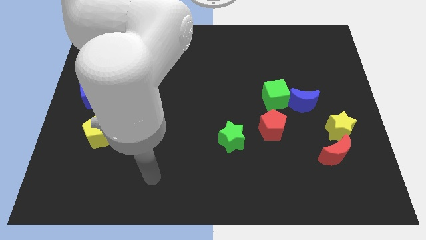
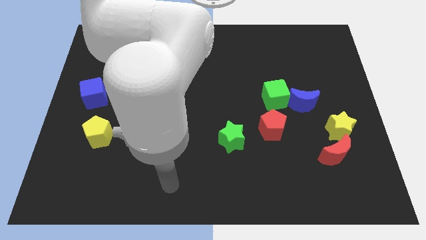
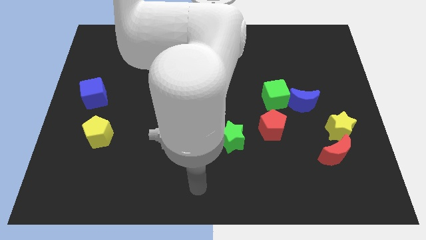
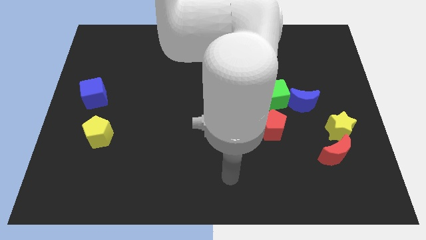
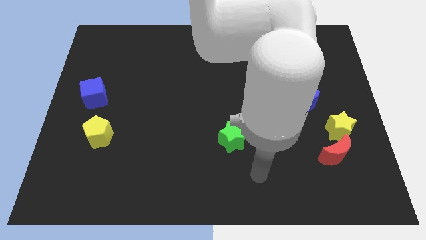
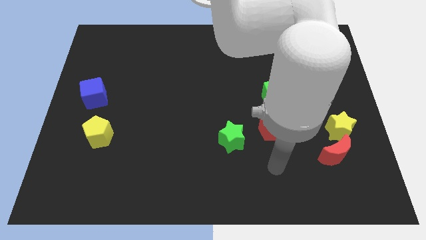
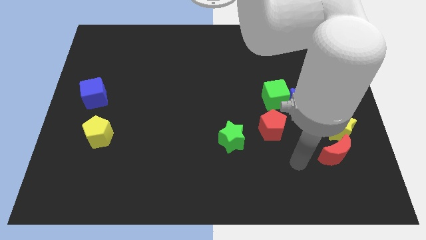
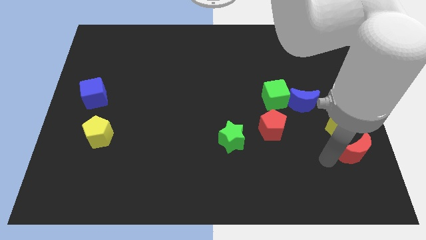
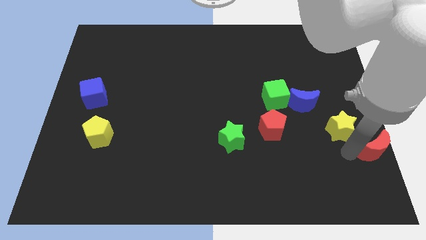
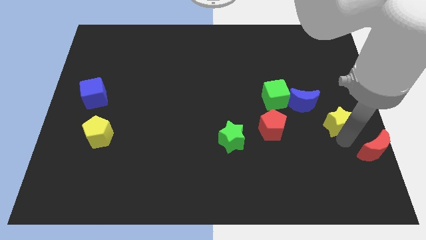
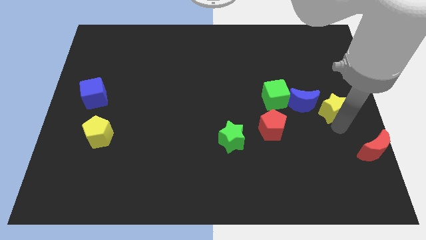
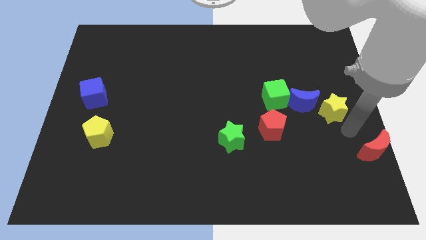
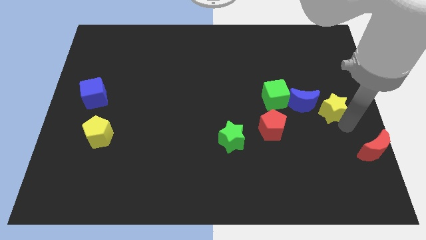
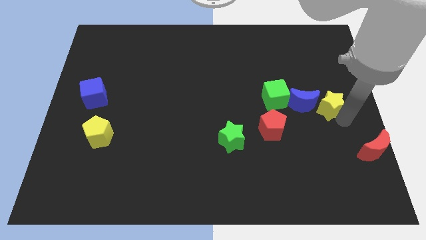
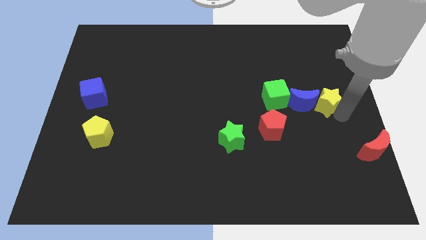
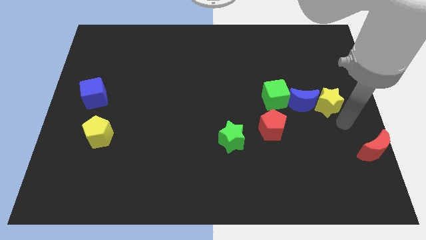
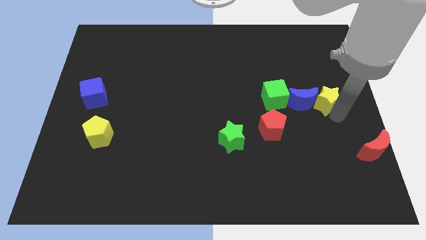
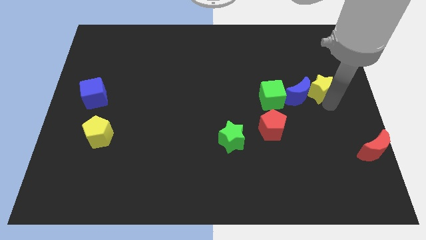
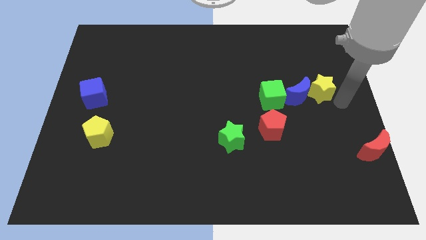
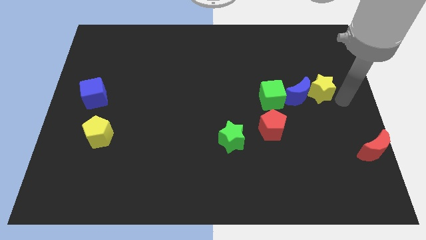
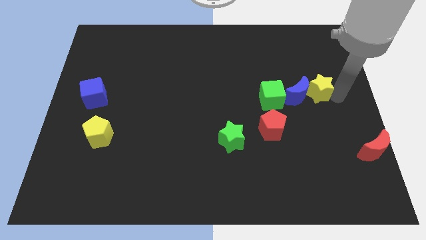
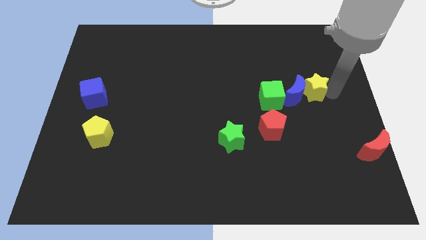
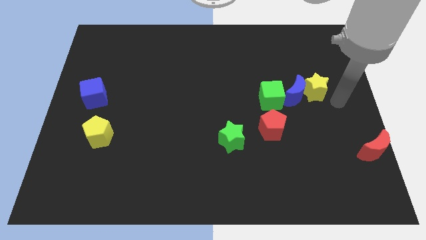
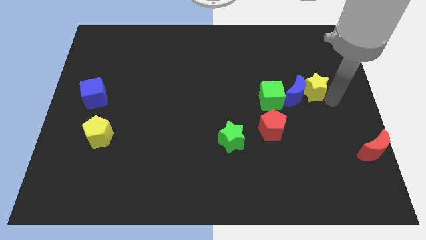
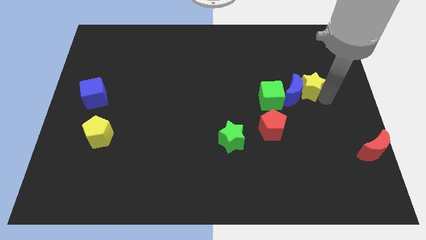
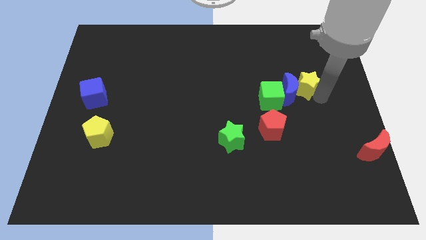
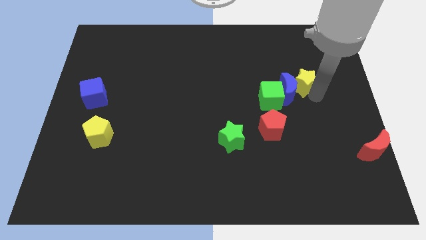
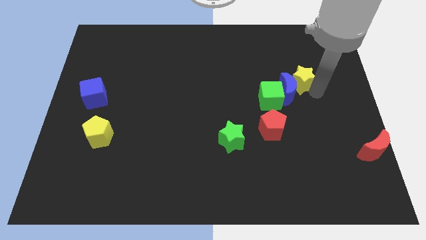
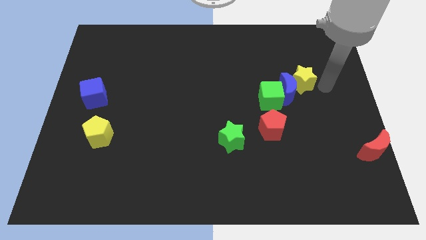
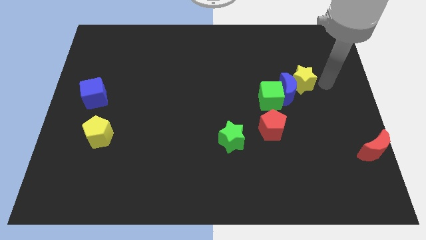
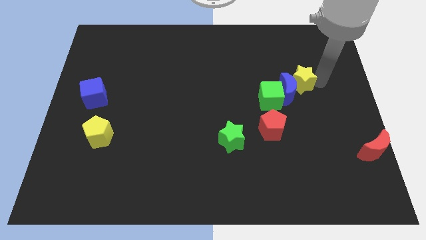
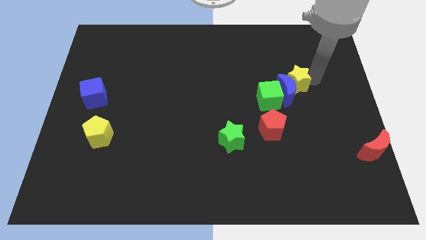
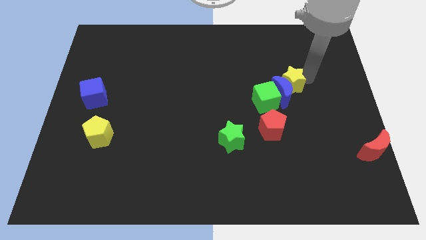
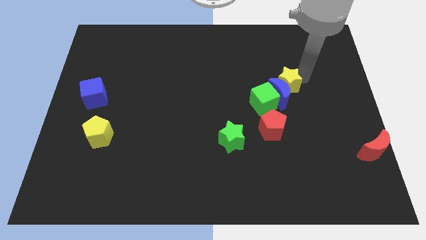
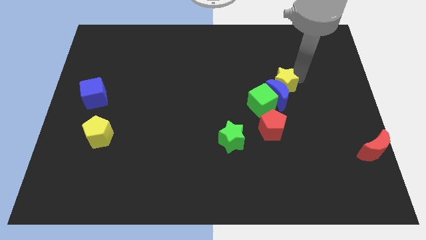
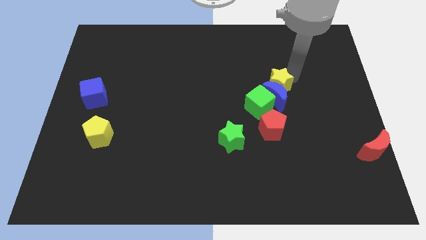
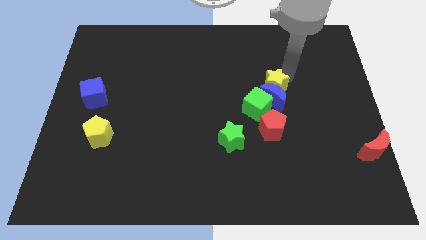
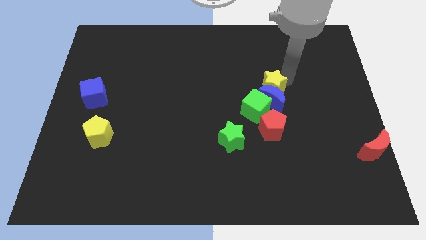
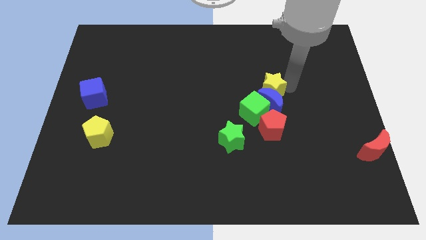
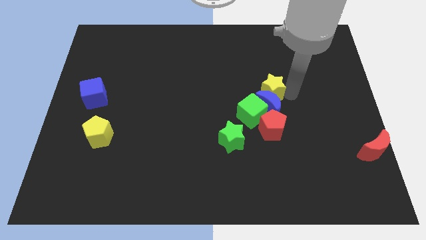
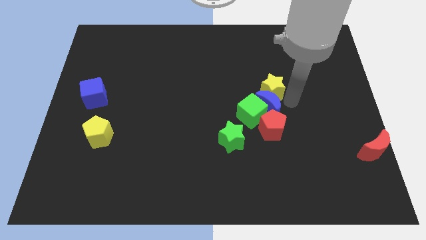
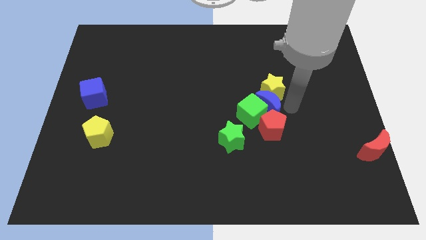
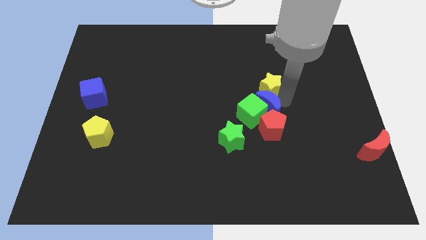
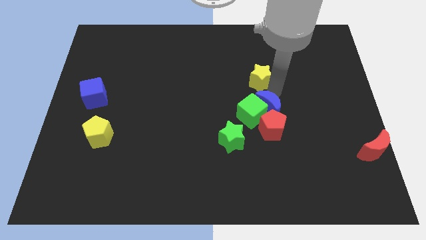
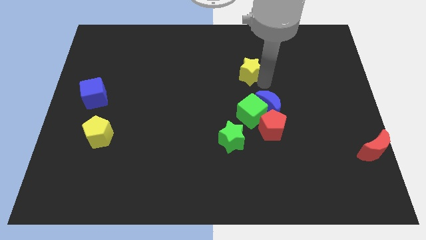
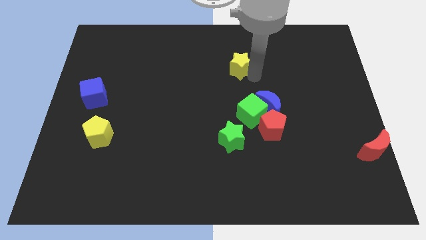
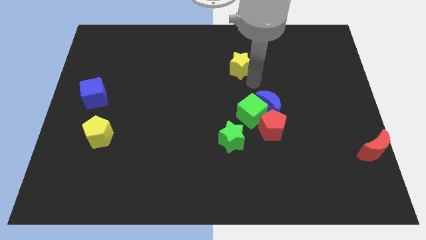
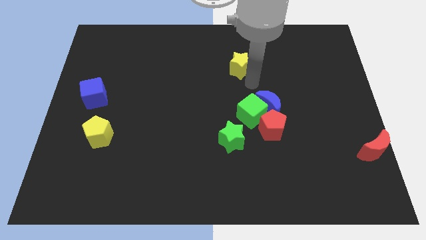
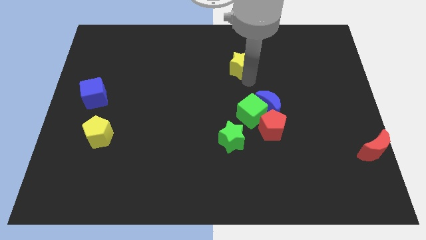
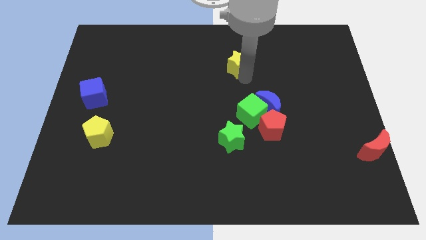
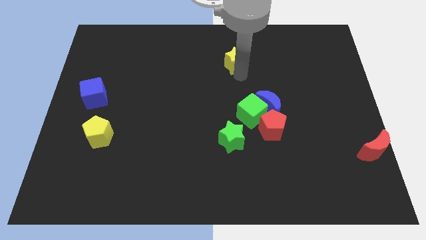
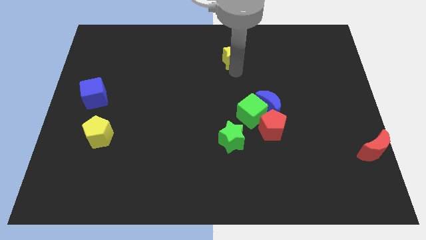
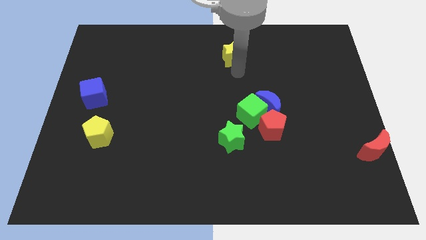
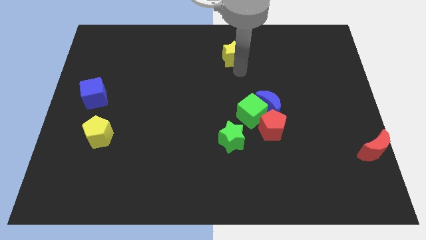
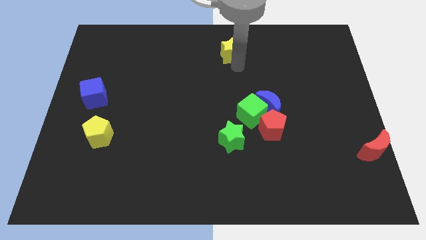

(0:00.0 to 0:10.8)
slide the yellow star to the top
